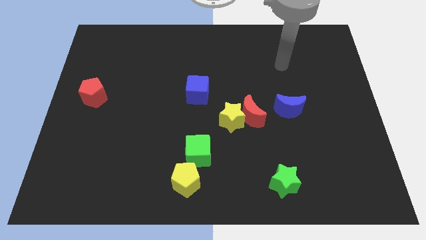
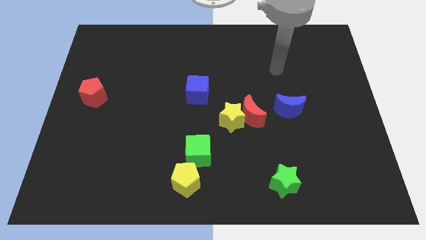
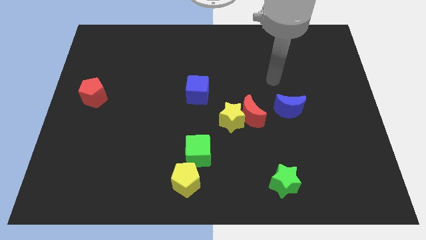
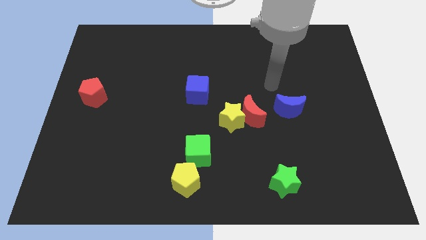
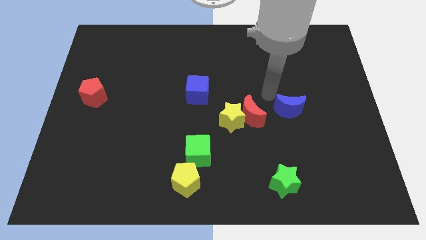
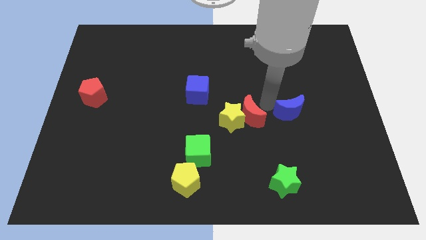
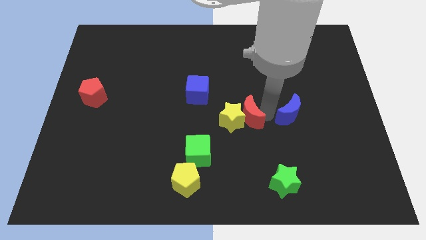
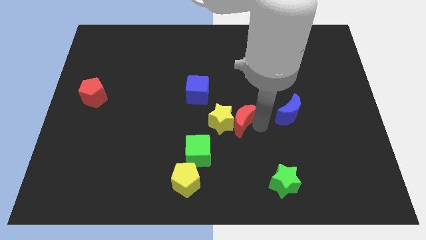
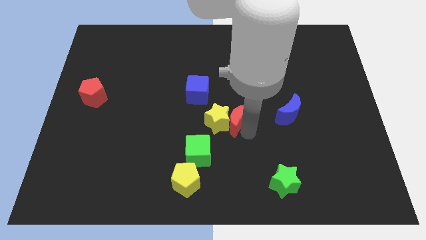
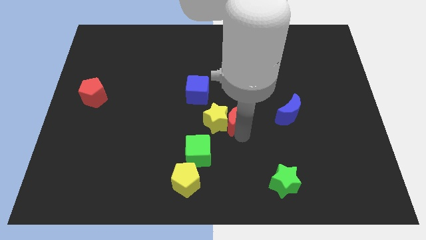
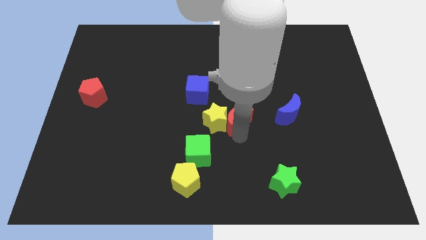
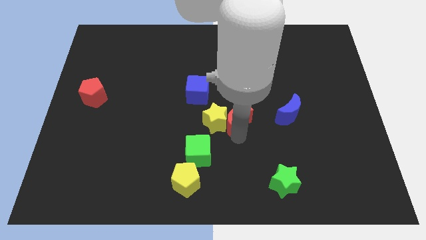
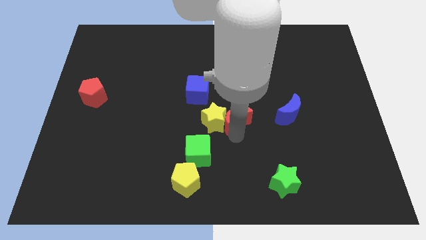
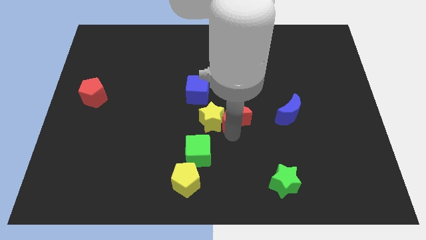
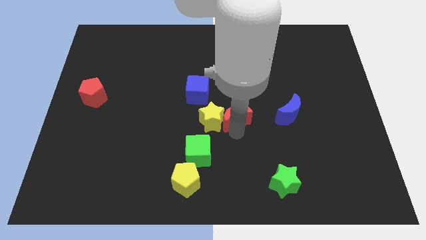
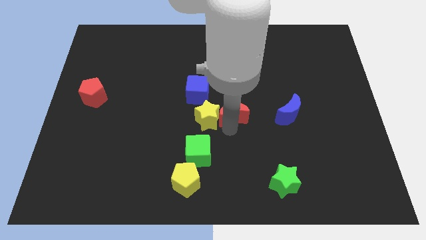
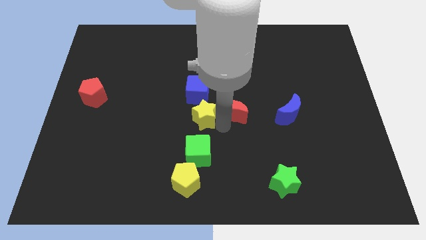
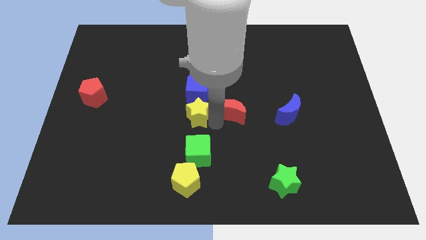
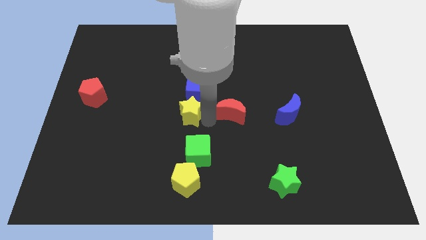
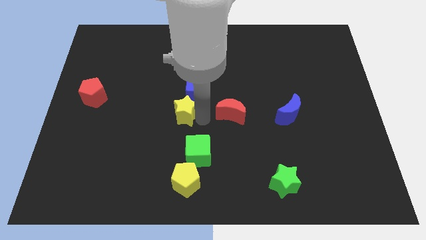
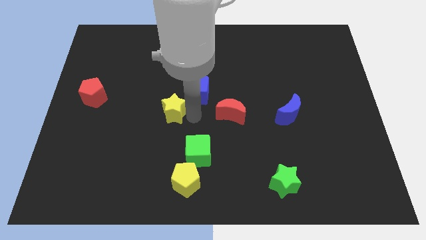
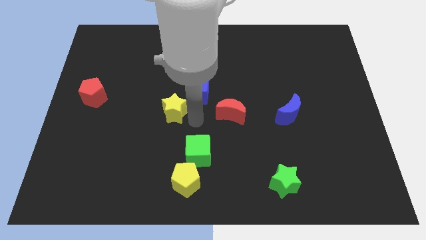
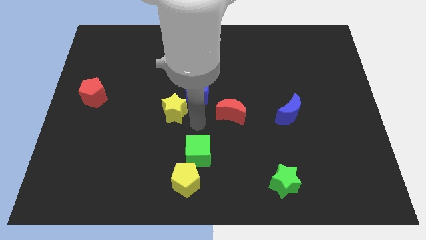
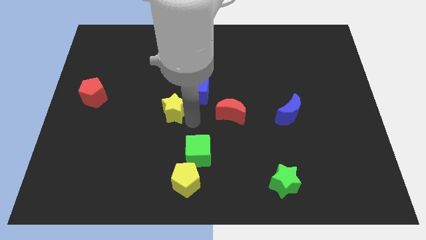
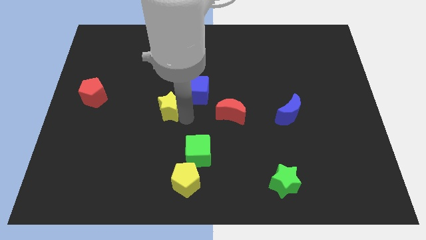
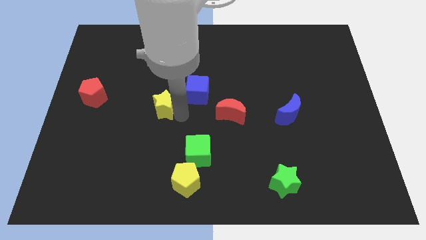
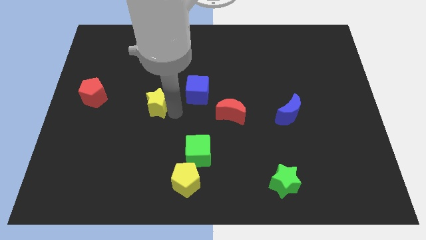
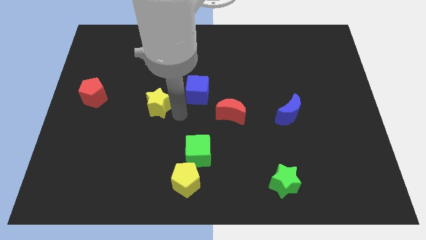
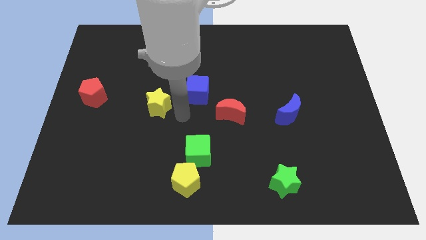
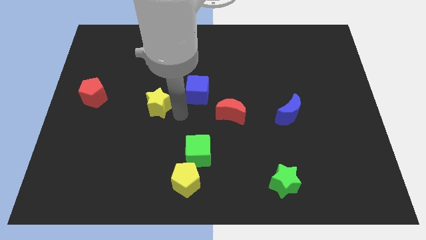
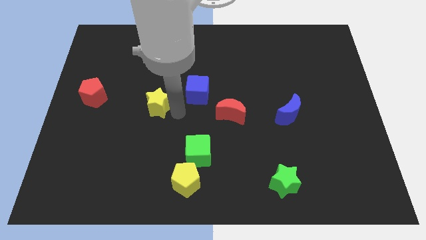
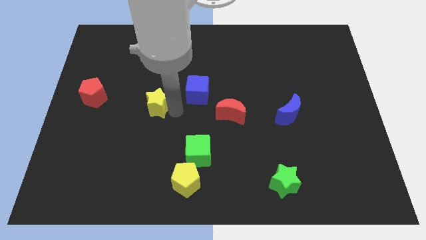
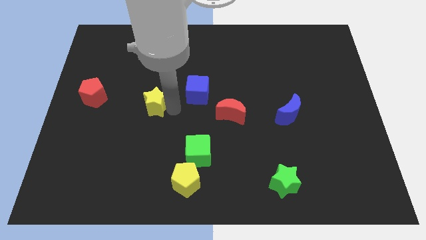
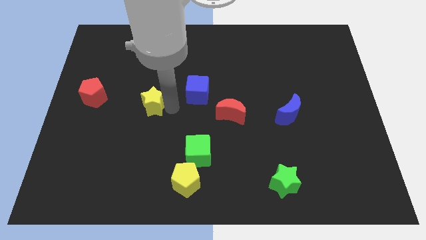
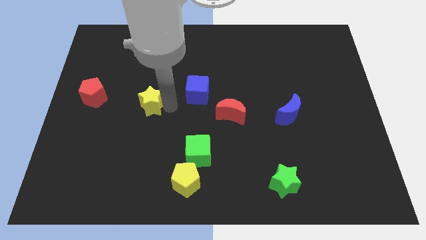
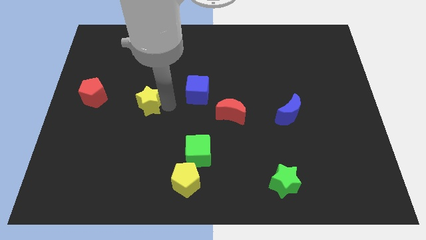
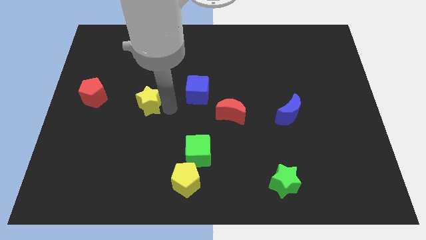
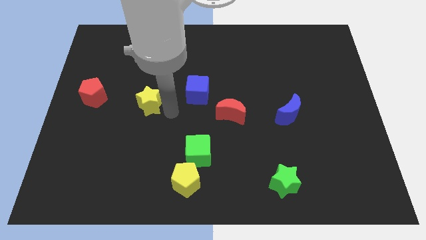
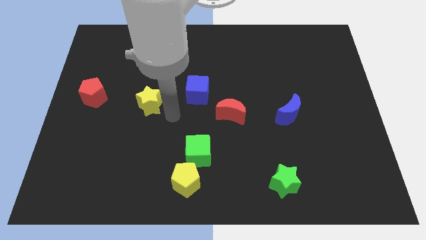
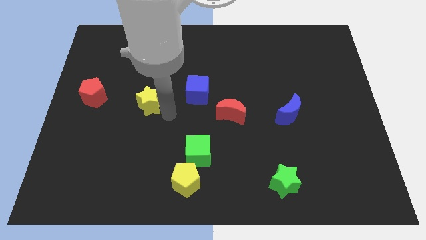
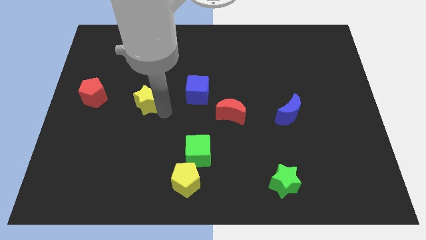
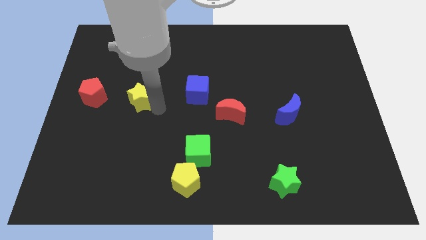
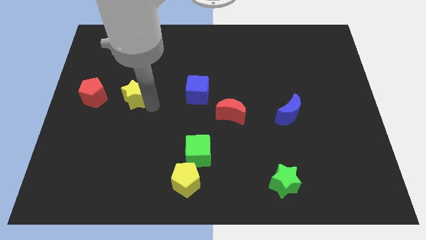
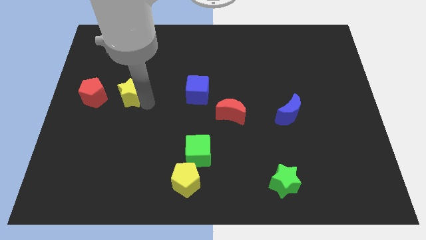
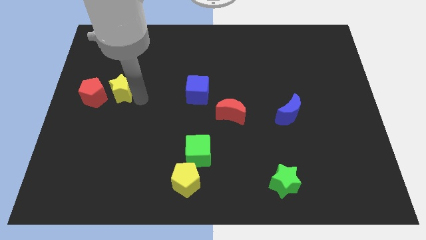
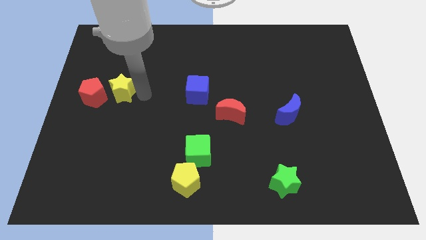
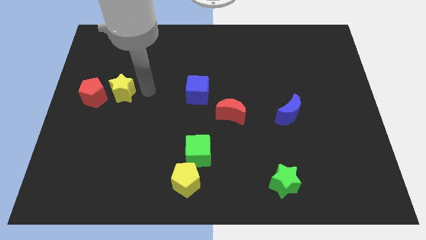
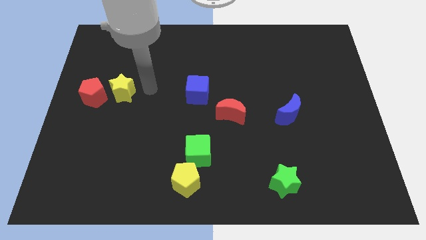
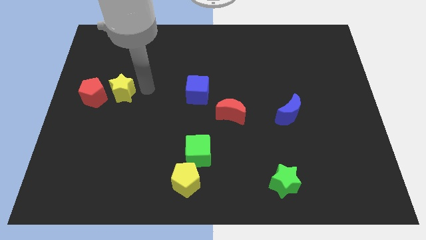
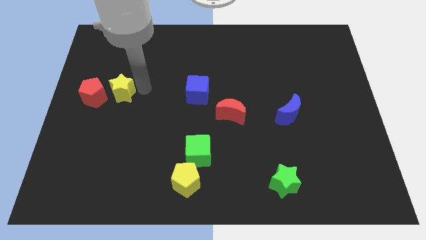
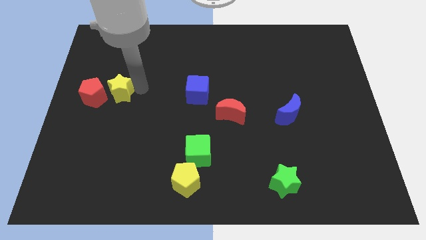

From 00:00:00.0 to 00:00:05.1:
slide the yellow star close to the red pentagon

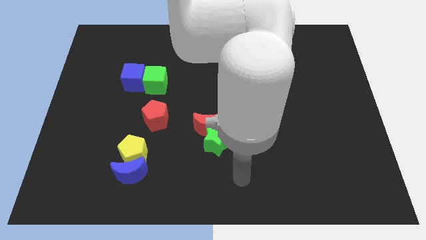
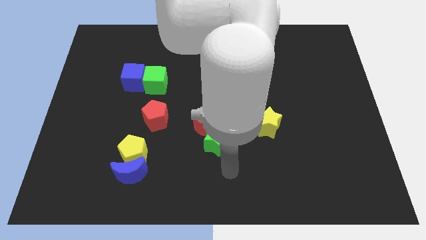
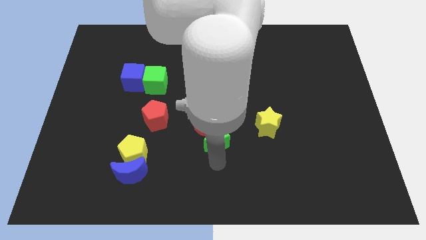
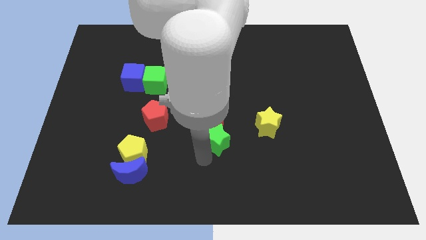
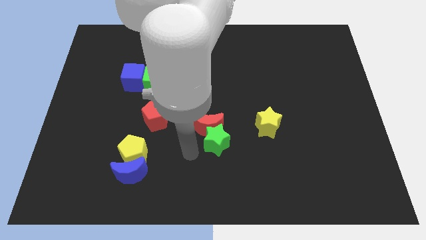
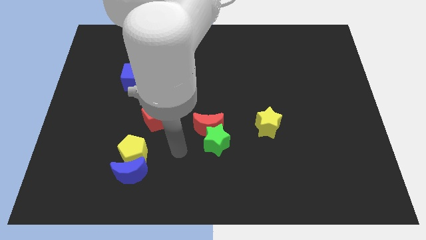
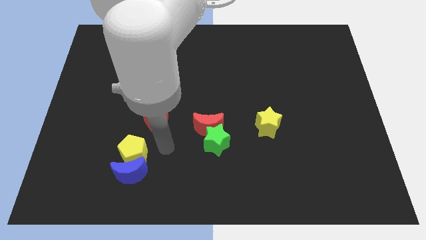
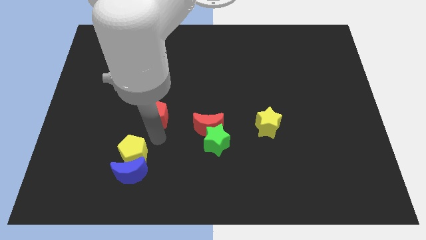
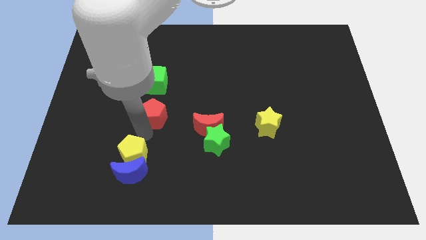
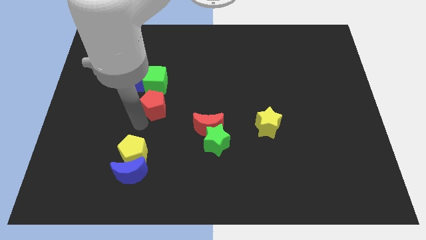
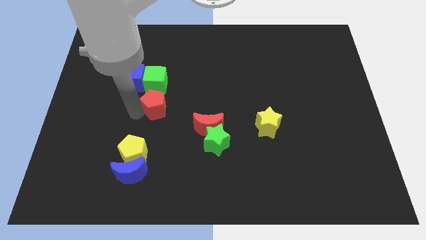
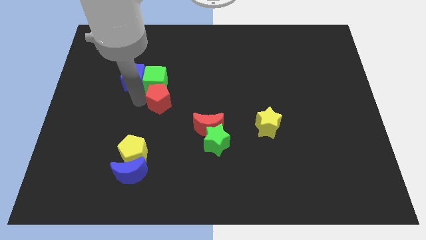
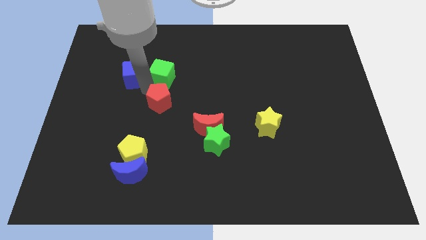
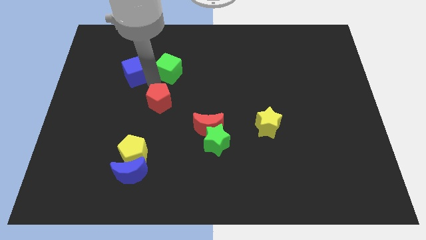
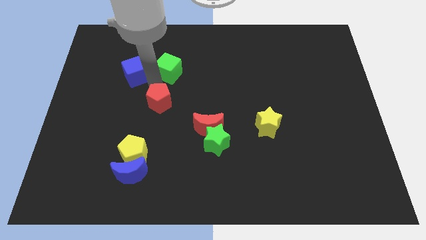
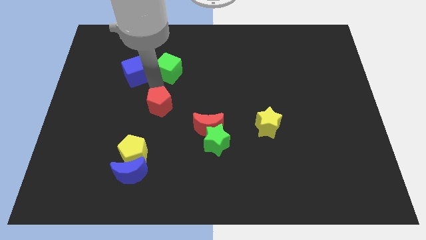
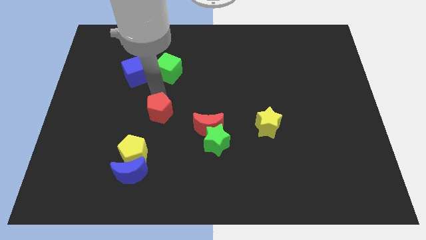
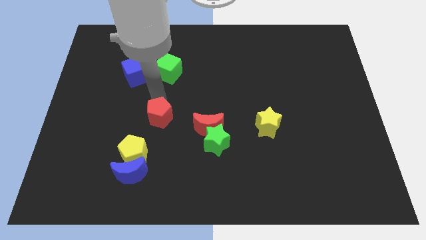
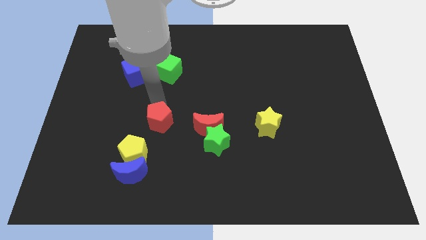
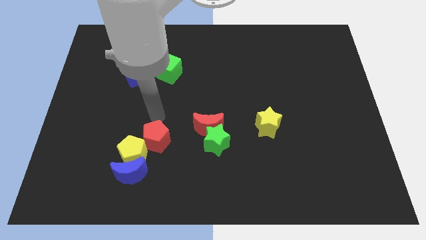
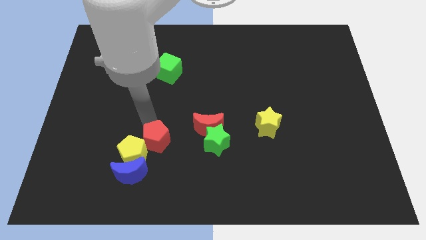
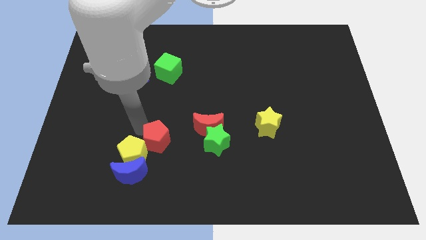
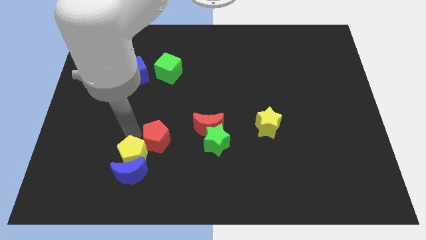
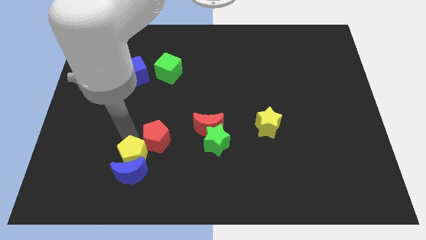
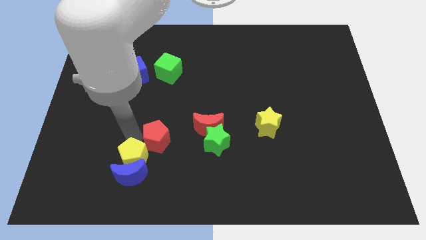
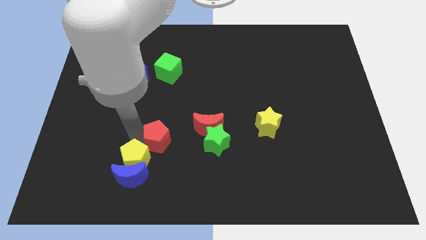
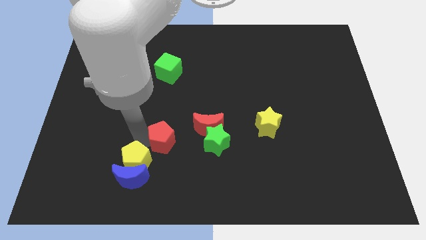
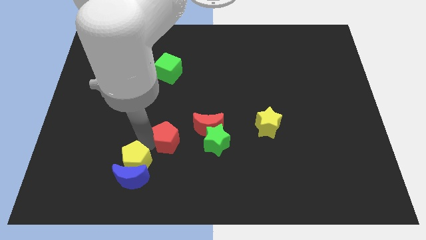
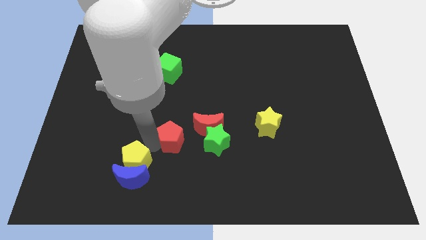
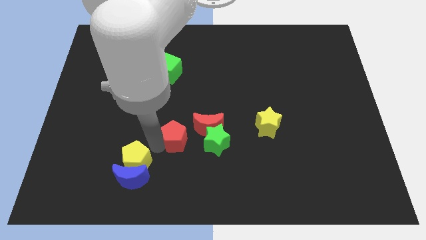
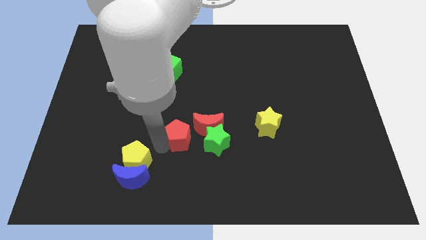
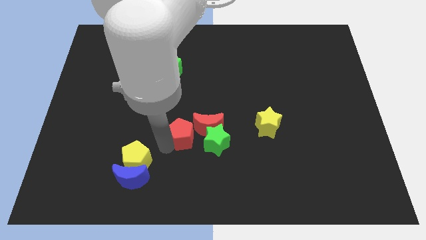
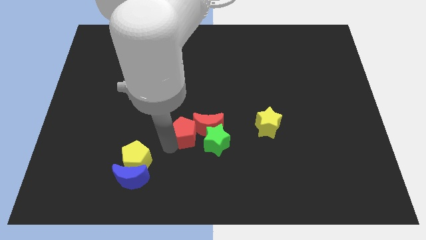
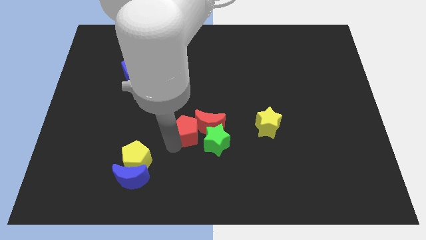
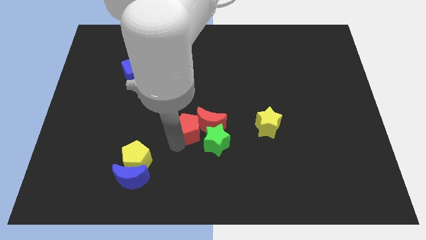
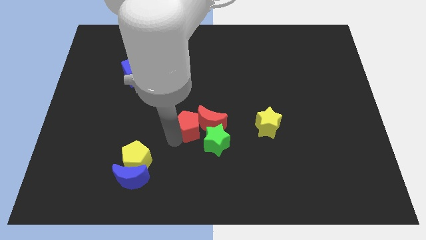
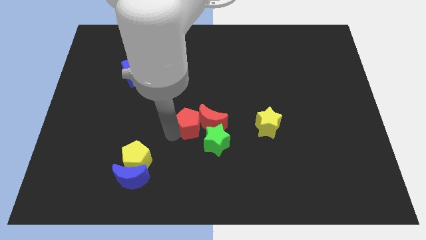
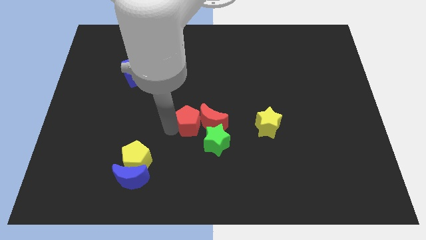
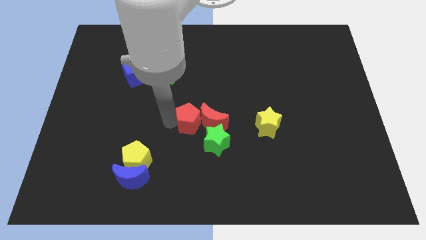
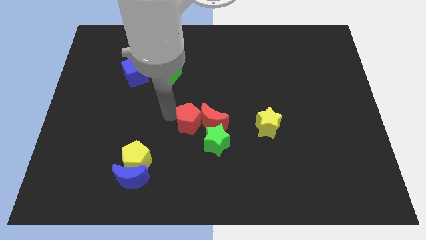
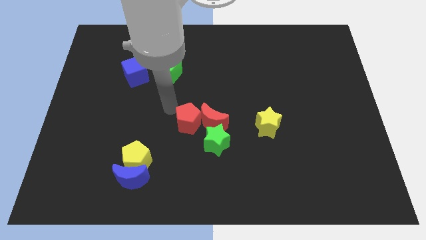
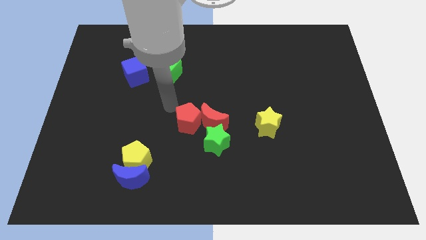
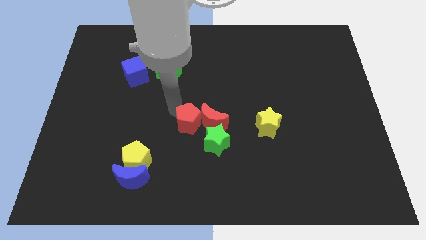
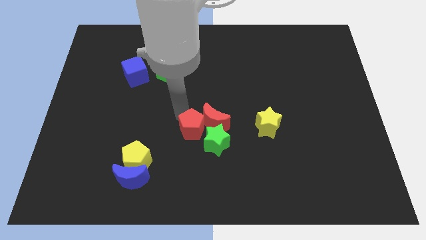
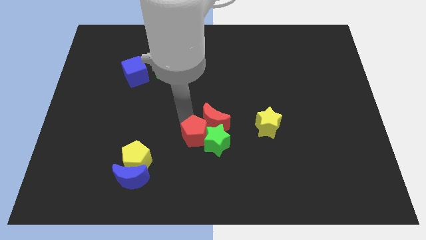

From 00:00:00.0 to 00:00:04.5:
slide the red pentagon close to the green star
